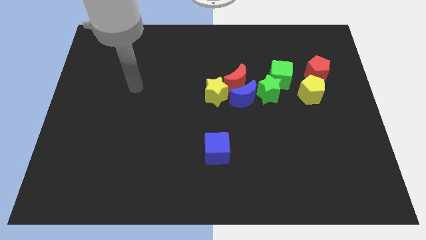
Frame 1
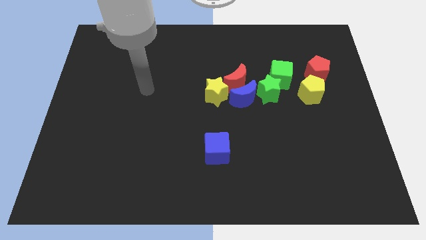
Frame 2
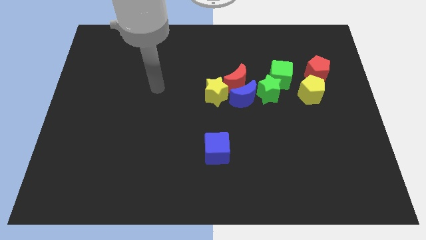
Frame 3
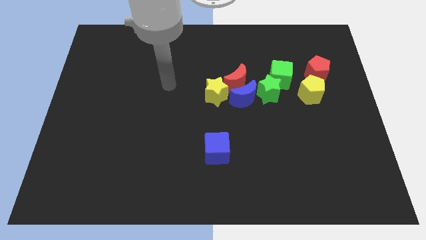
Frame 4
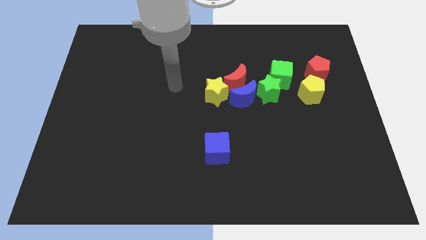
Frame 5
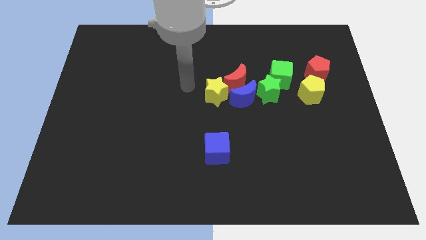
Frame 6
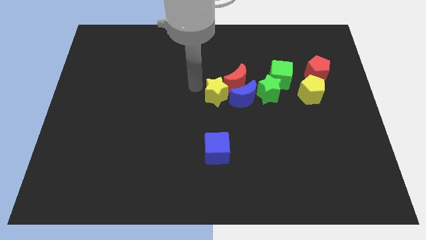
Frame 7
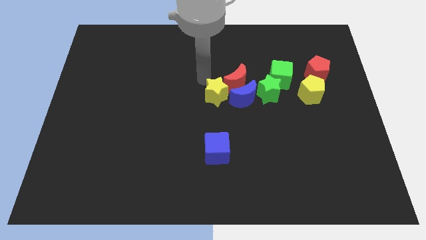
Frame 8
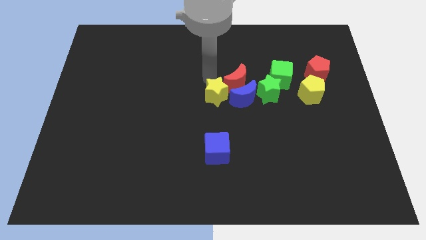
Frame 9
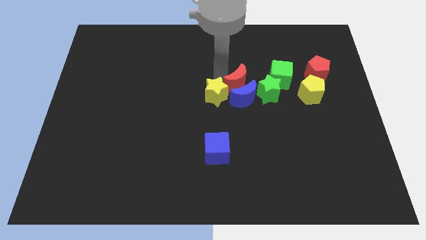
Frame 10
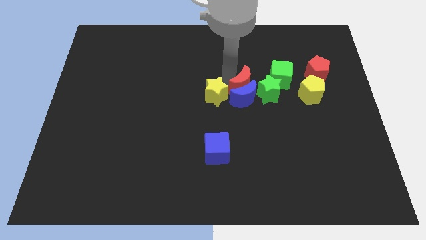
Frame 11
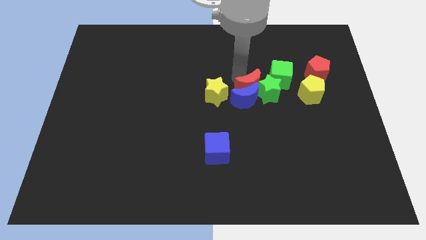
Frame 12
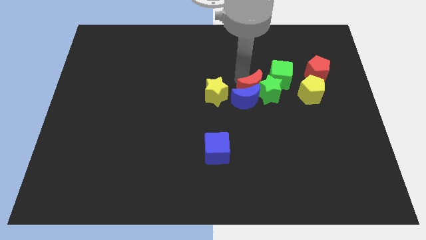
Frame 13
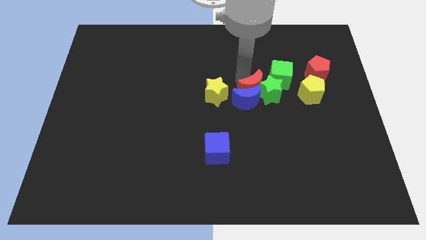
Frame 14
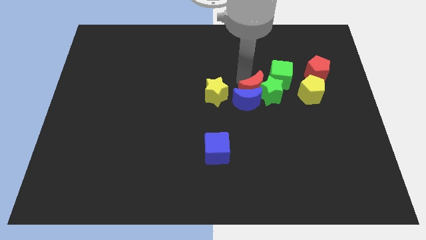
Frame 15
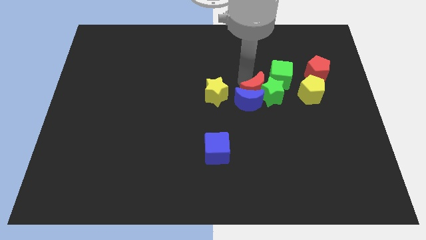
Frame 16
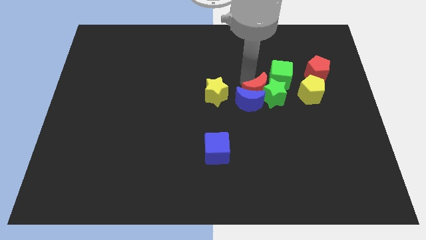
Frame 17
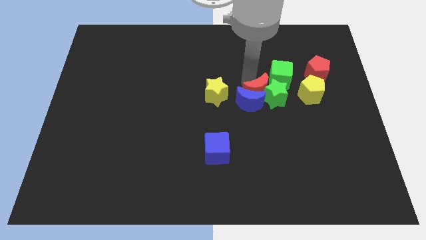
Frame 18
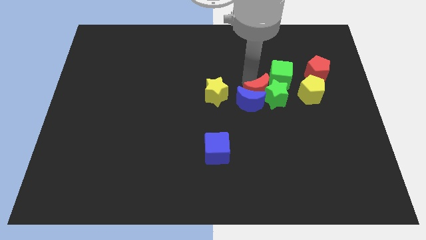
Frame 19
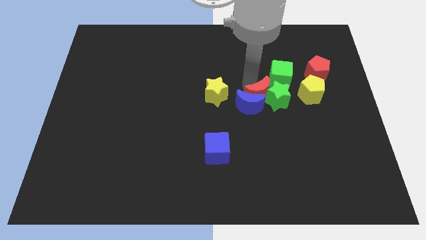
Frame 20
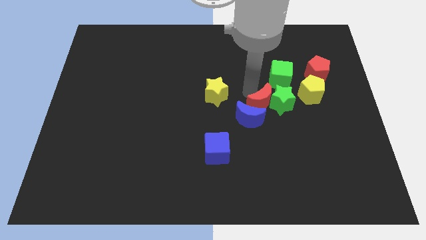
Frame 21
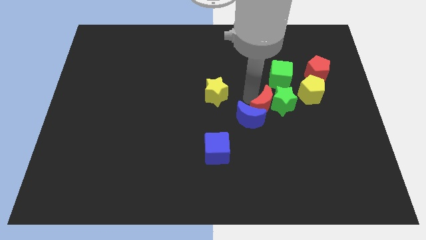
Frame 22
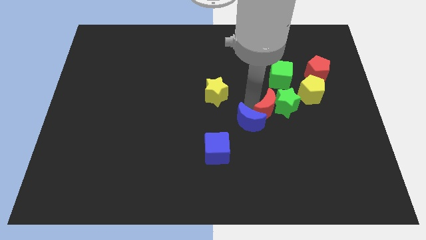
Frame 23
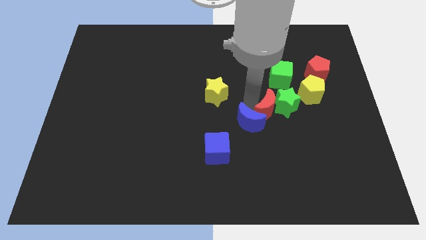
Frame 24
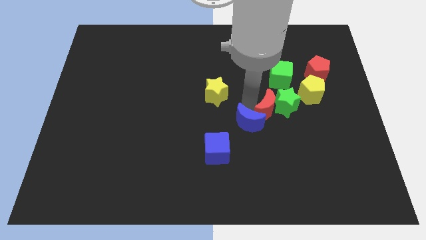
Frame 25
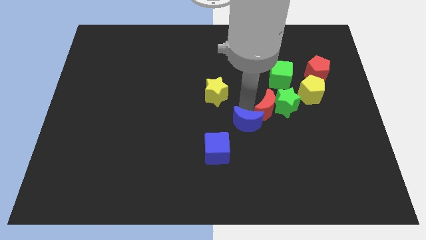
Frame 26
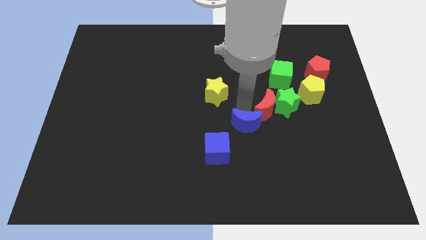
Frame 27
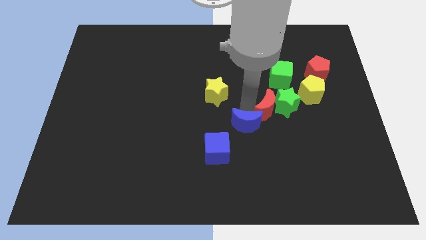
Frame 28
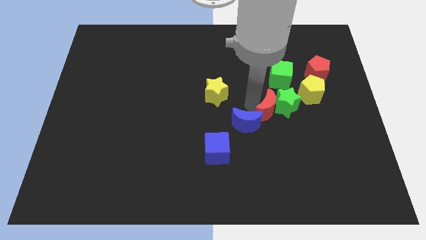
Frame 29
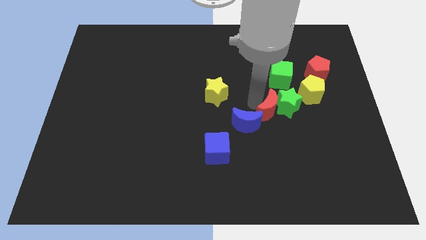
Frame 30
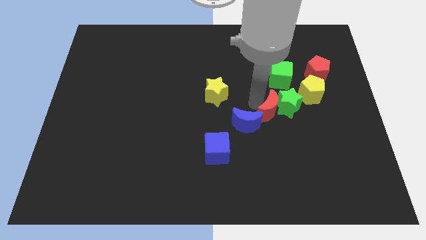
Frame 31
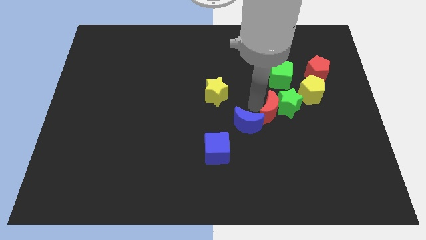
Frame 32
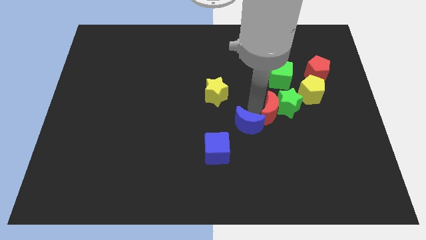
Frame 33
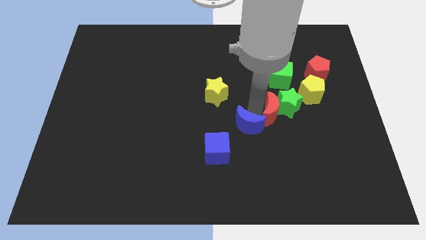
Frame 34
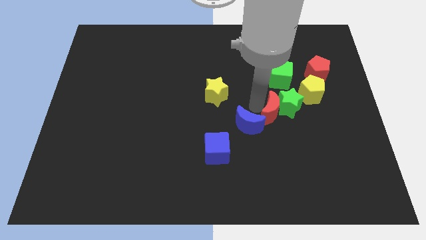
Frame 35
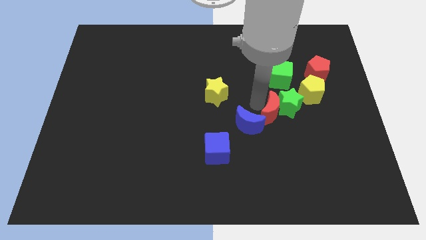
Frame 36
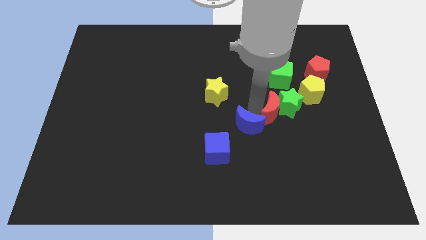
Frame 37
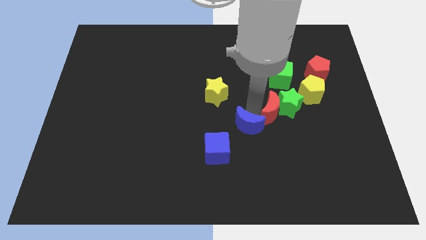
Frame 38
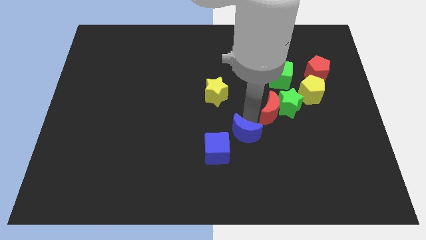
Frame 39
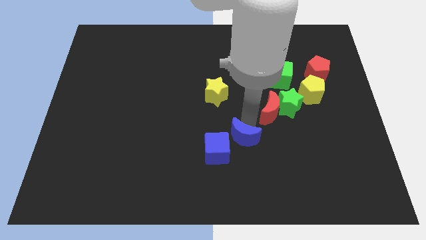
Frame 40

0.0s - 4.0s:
pull the blue moon apart from the group

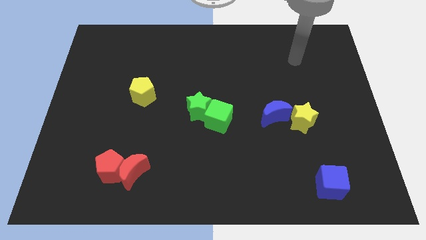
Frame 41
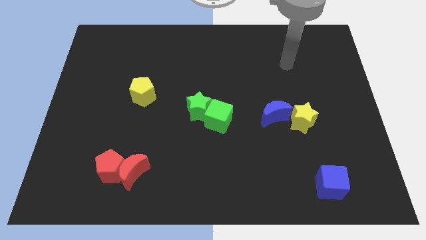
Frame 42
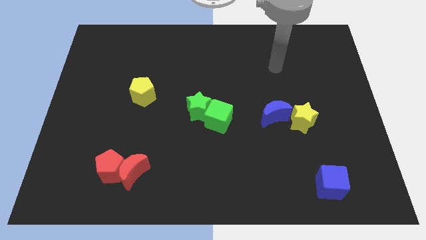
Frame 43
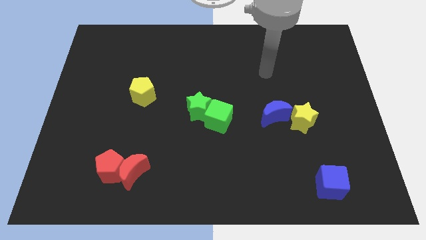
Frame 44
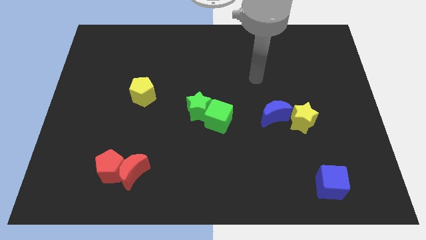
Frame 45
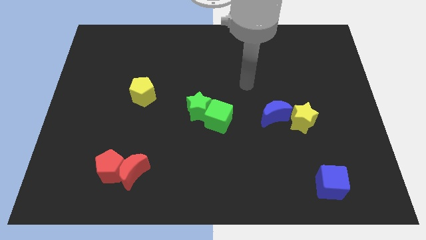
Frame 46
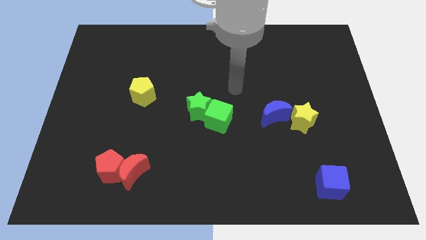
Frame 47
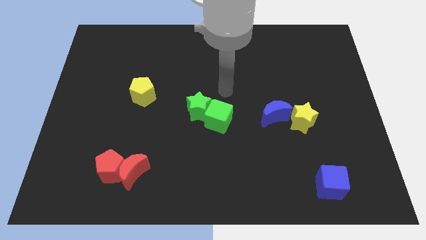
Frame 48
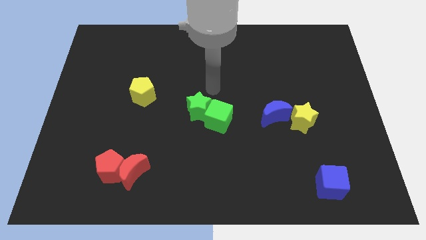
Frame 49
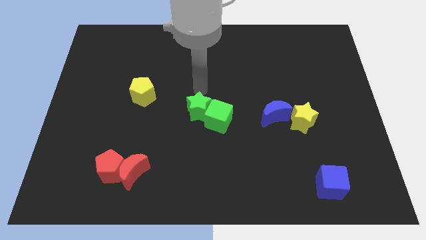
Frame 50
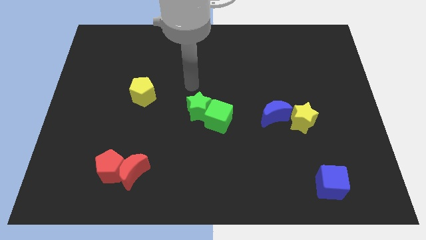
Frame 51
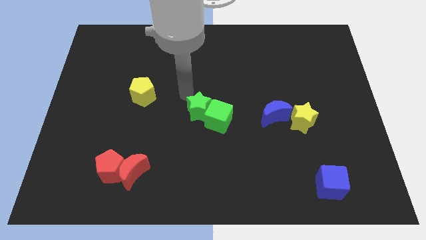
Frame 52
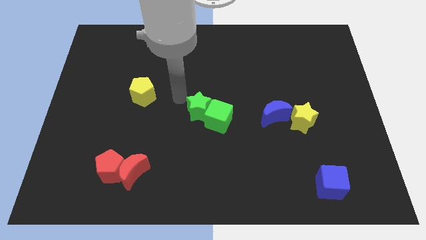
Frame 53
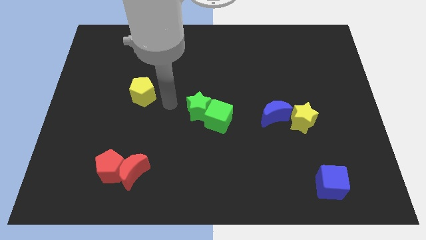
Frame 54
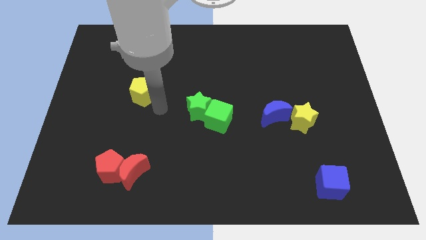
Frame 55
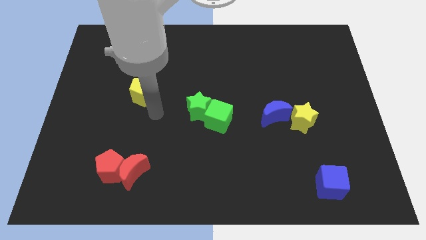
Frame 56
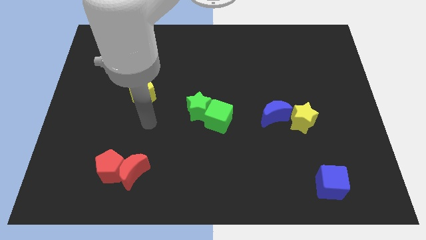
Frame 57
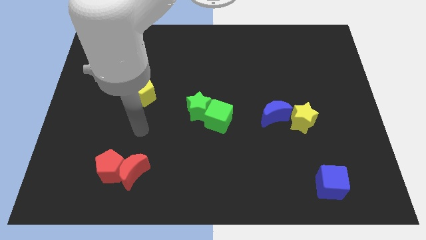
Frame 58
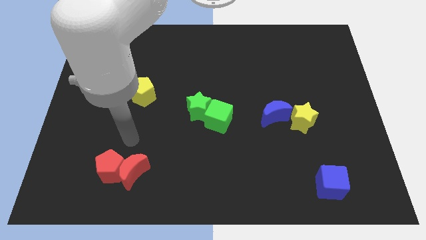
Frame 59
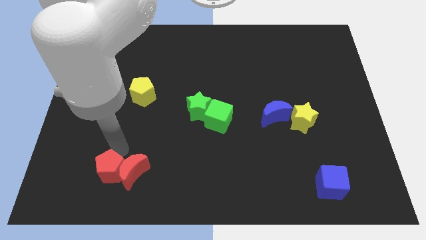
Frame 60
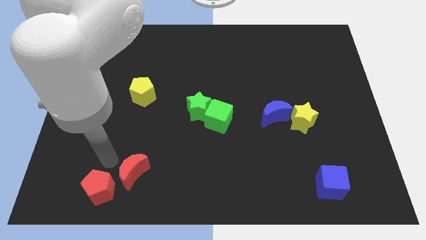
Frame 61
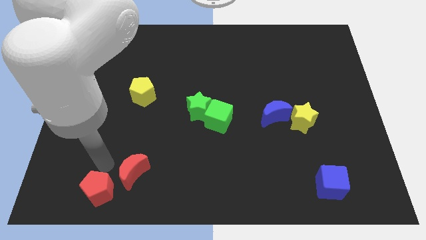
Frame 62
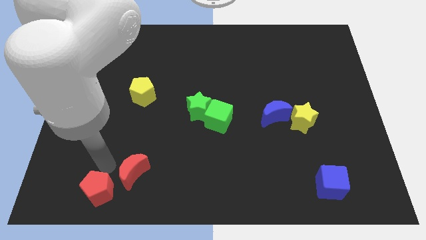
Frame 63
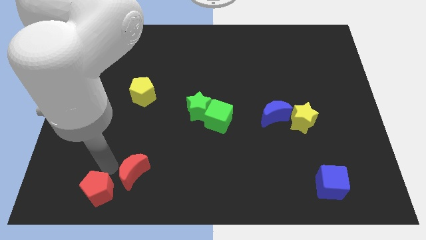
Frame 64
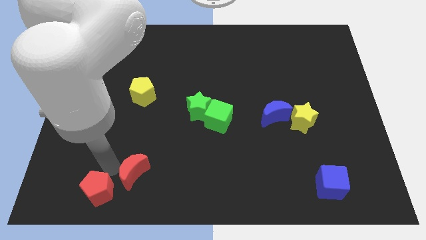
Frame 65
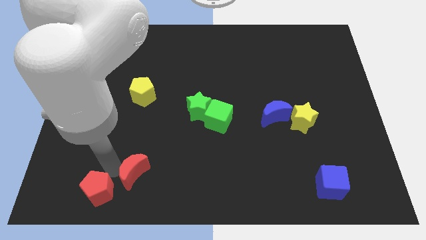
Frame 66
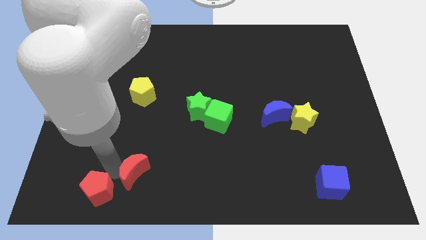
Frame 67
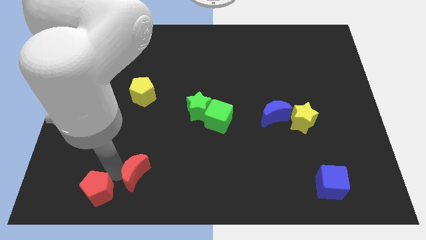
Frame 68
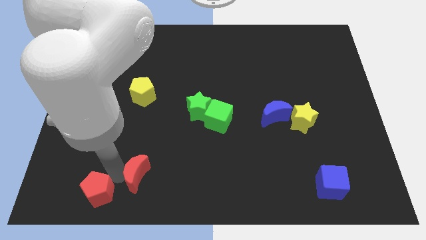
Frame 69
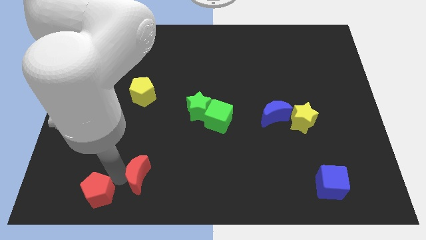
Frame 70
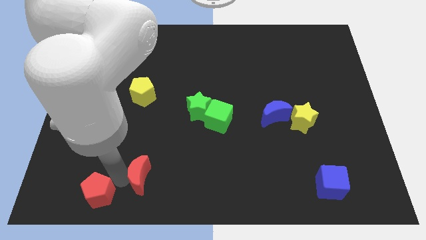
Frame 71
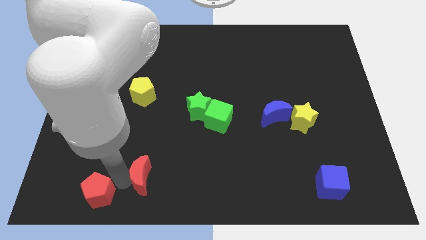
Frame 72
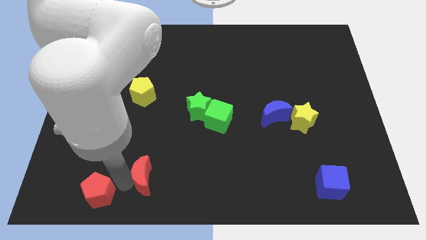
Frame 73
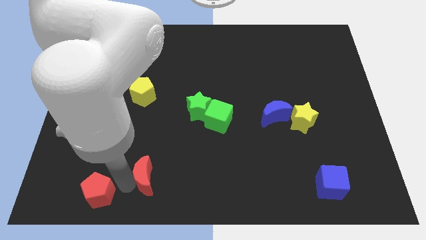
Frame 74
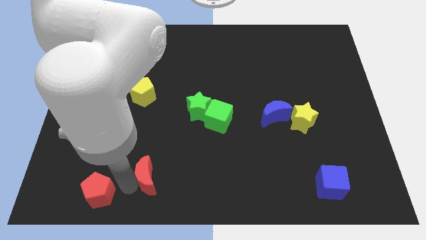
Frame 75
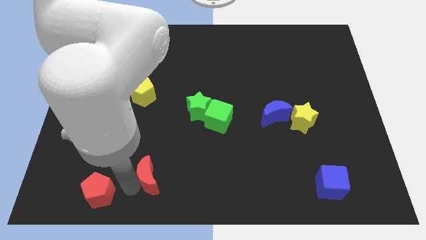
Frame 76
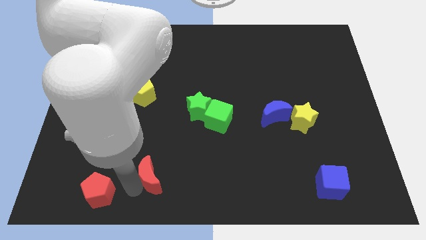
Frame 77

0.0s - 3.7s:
move the red moon away from the red pentagon

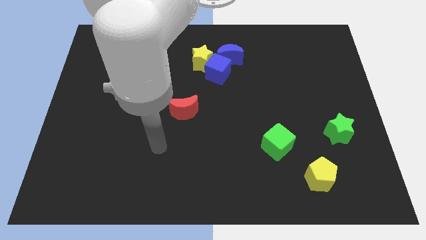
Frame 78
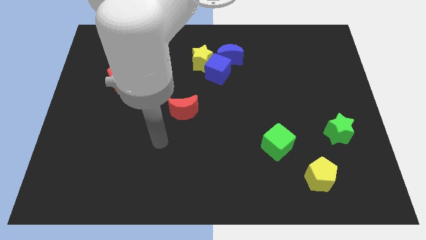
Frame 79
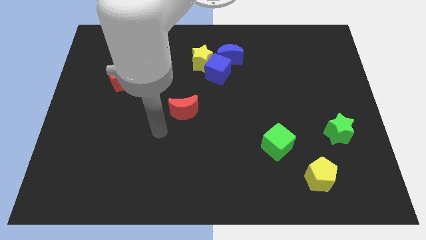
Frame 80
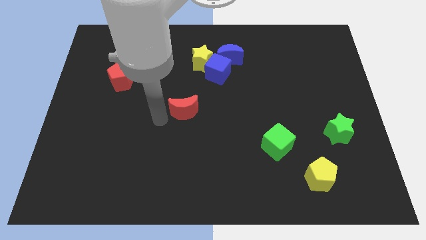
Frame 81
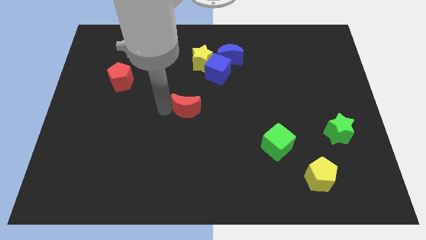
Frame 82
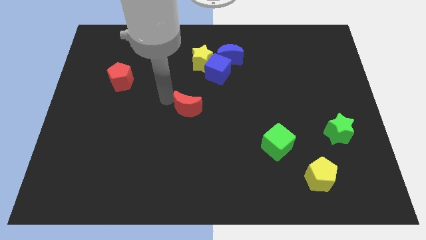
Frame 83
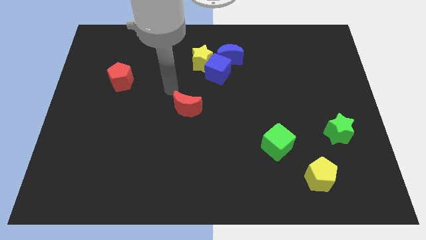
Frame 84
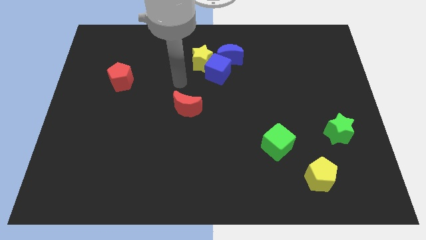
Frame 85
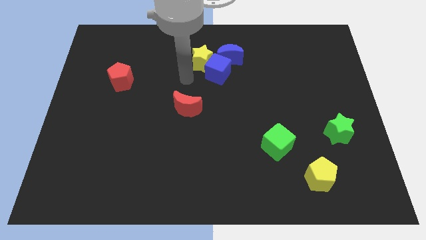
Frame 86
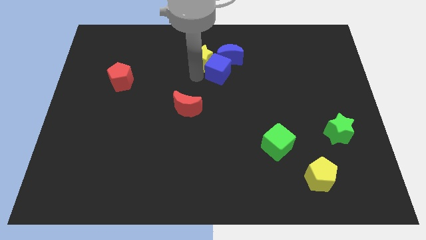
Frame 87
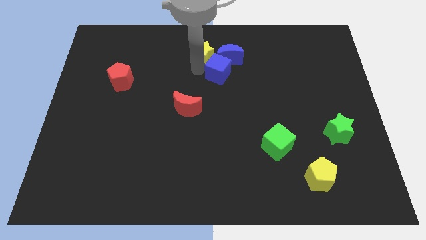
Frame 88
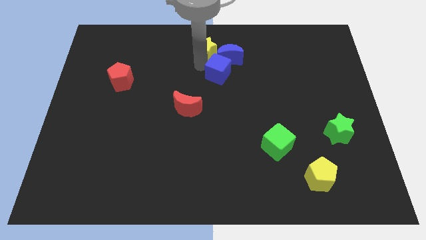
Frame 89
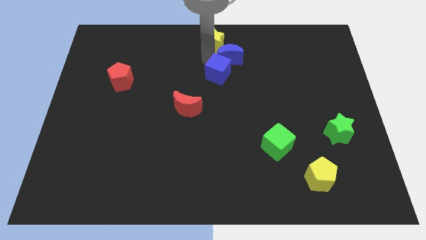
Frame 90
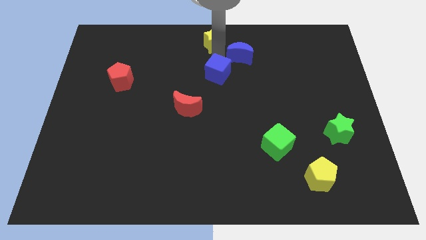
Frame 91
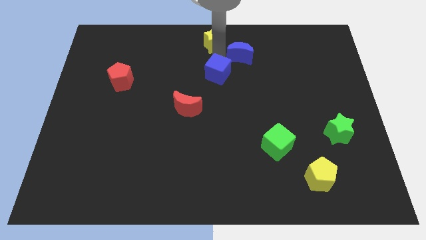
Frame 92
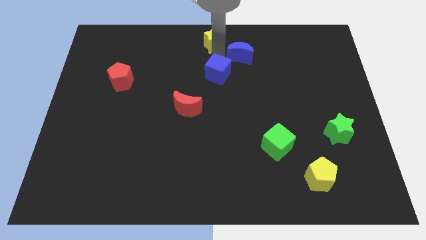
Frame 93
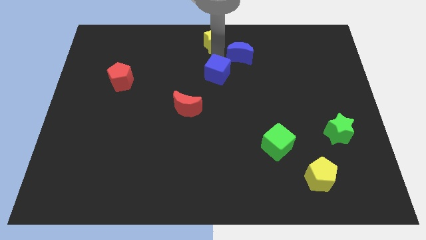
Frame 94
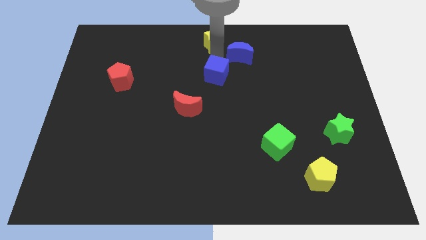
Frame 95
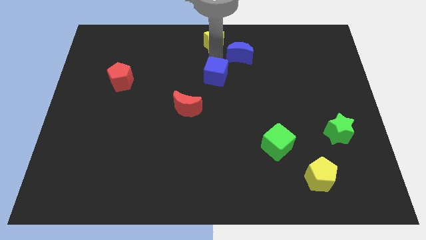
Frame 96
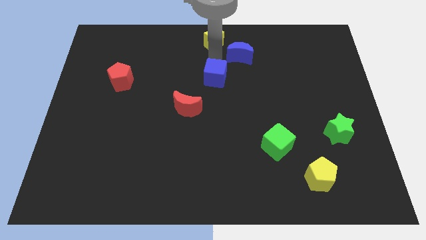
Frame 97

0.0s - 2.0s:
pull the blue cube apart from the yellow star and blue moon
